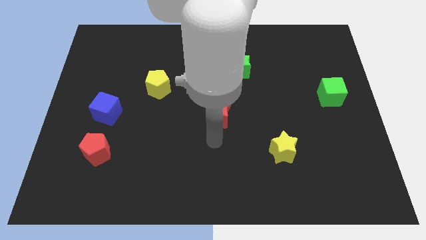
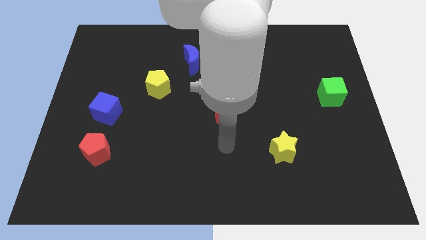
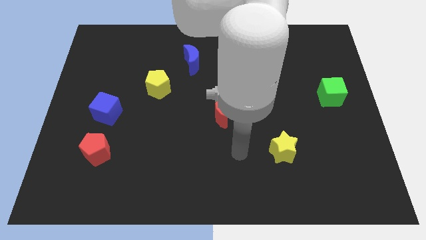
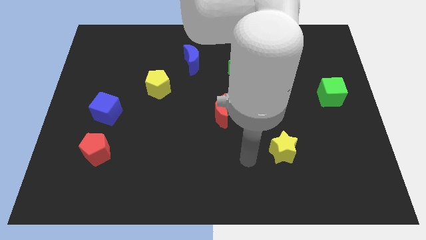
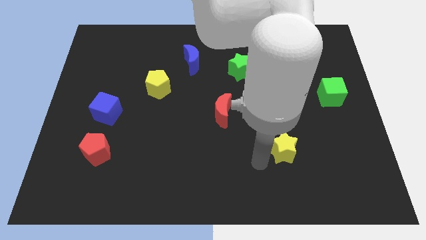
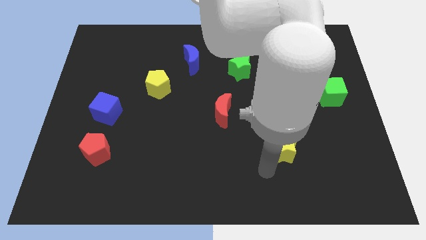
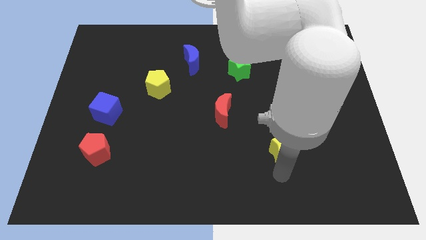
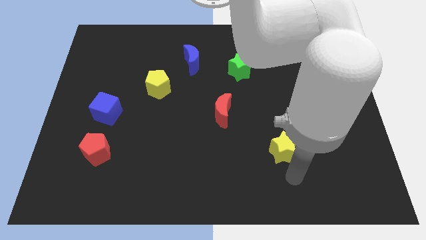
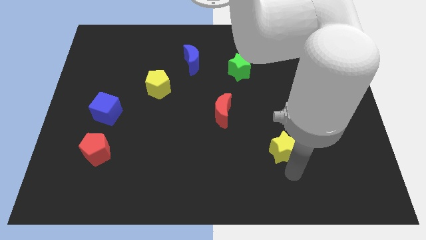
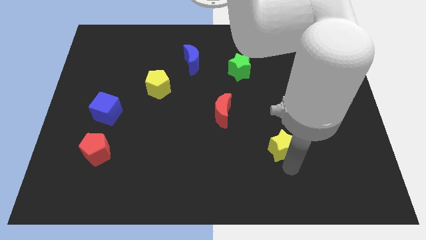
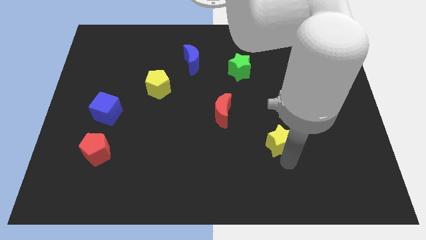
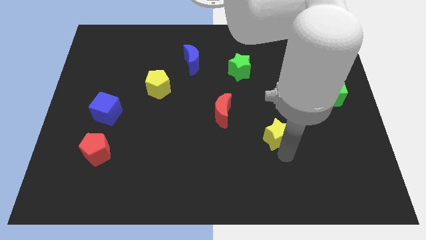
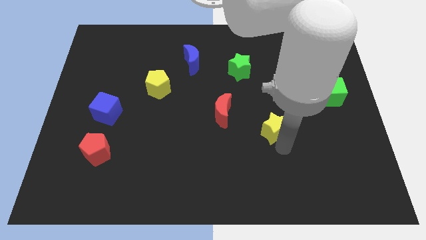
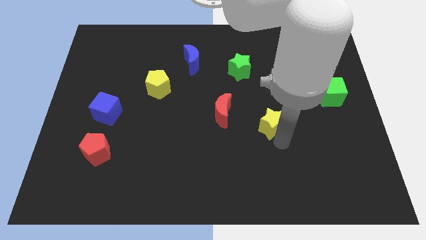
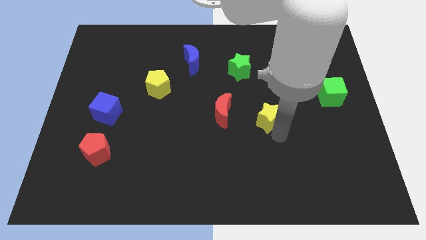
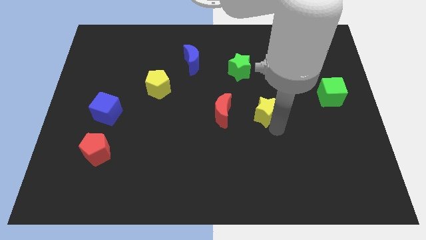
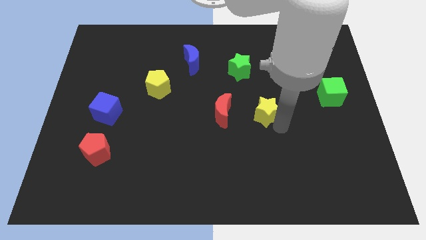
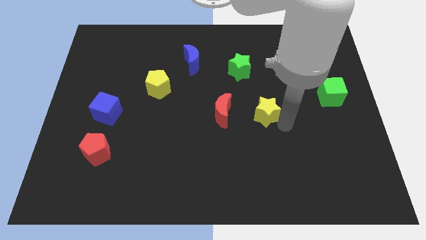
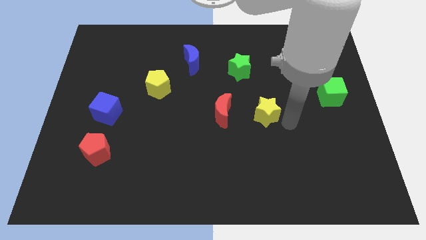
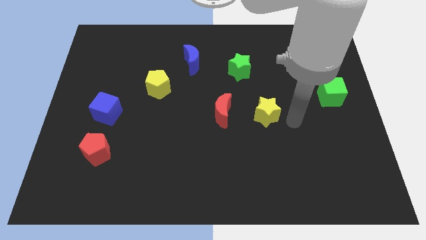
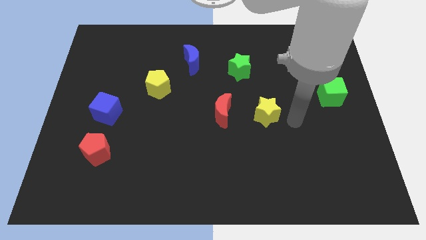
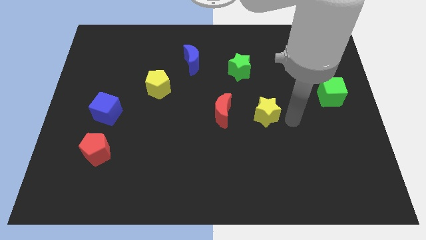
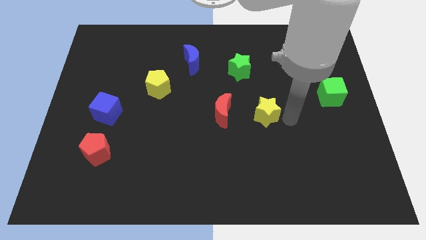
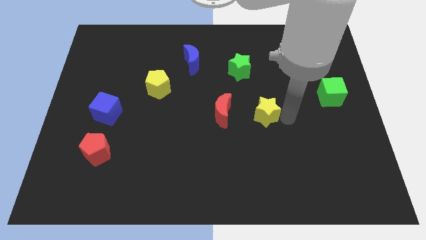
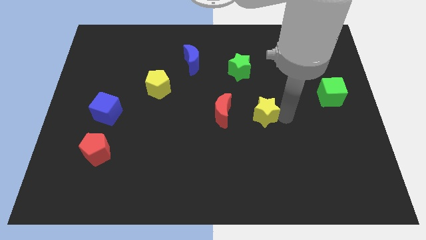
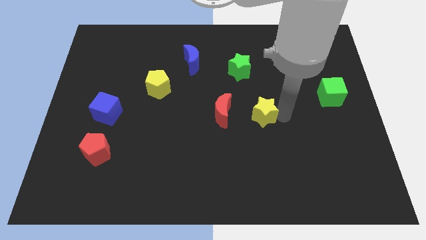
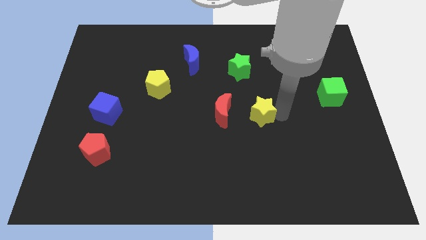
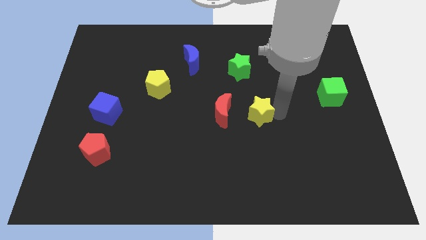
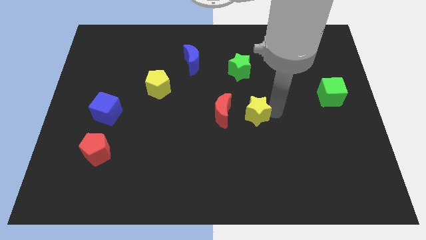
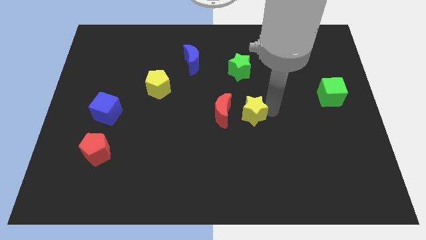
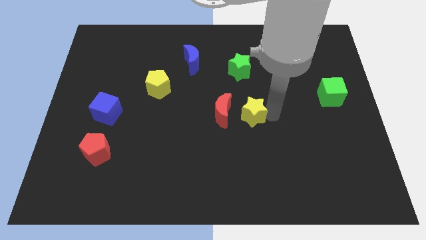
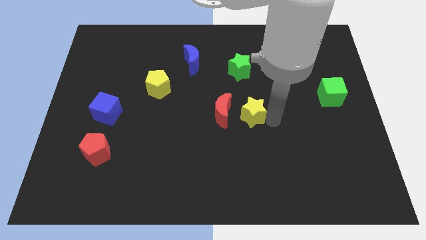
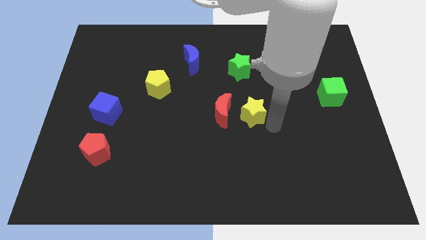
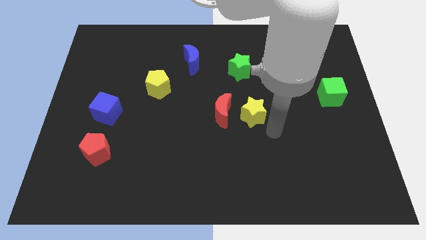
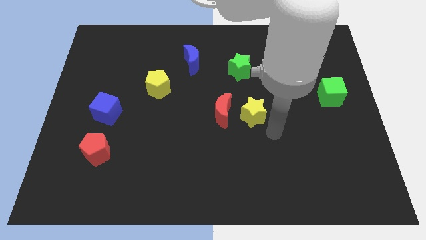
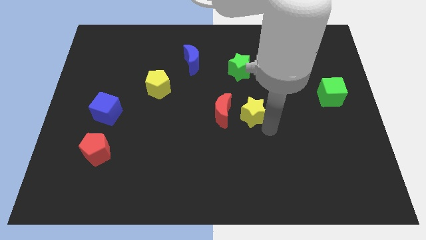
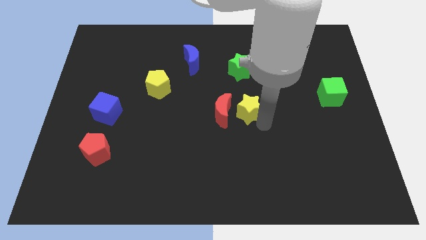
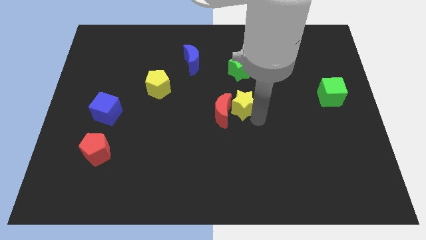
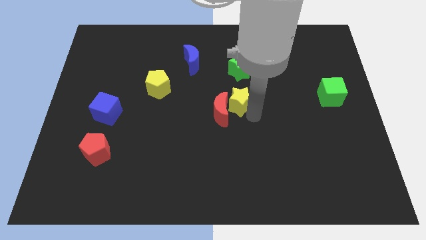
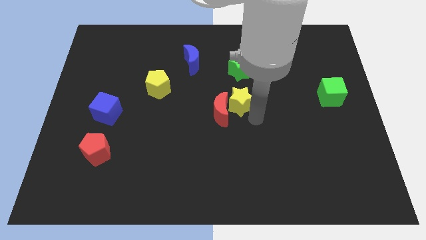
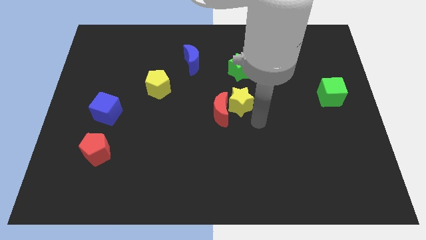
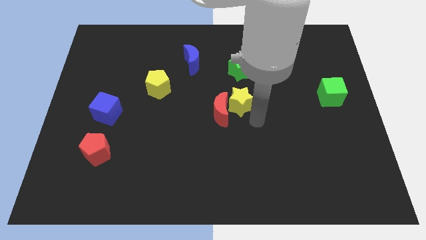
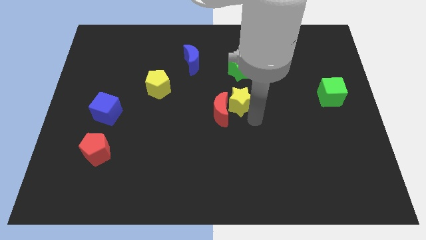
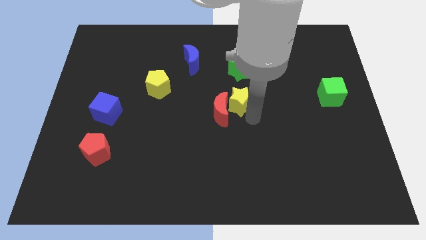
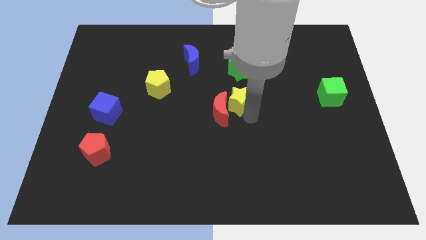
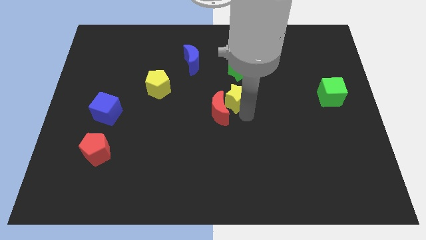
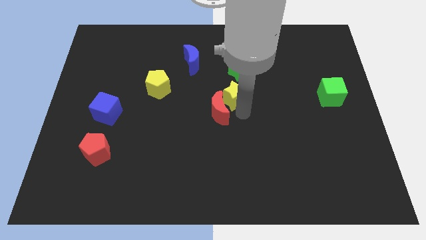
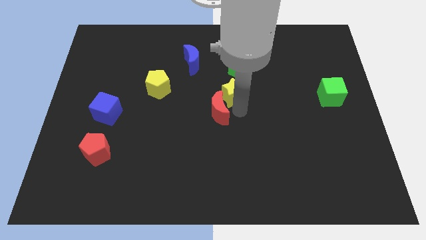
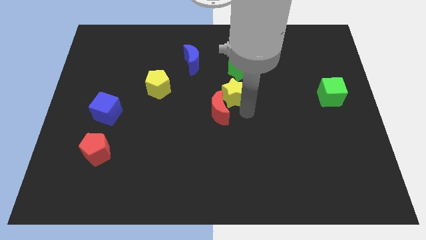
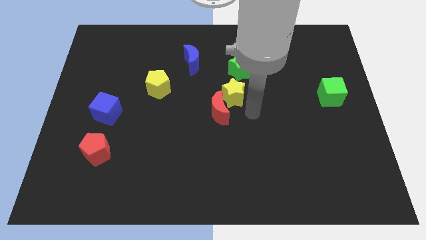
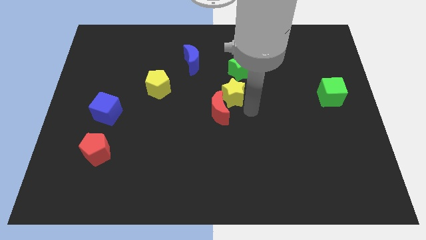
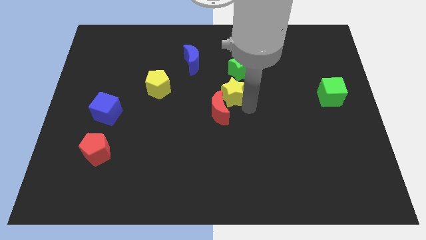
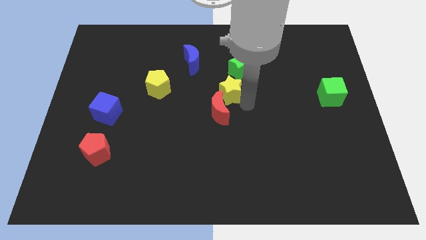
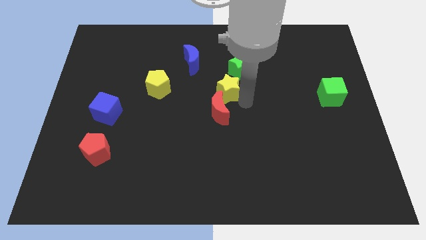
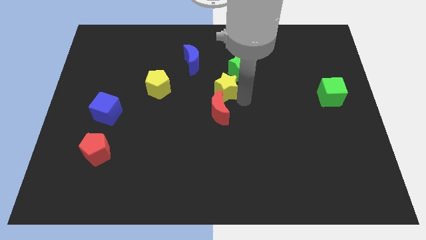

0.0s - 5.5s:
move the yellow star to the bottom right side of the blue moon

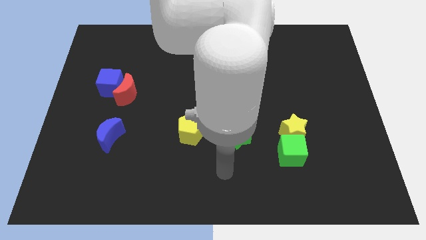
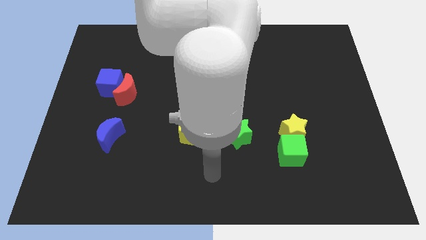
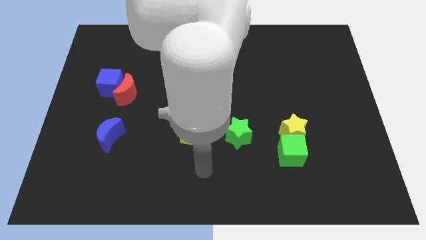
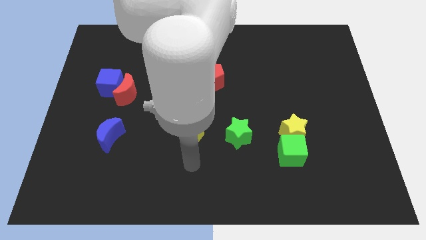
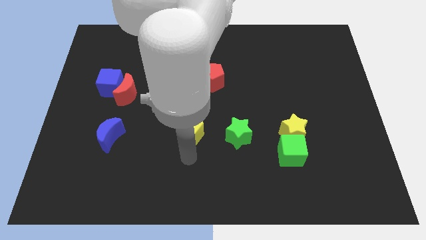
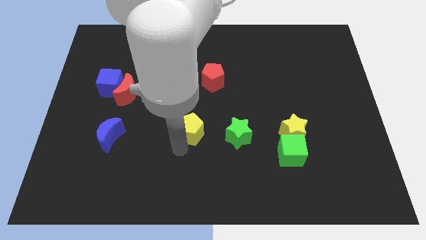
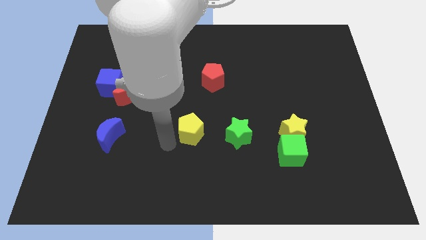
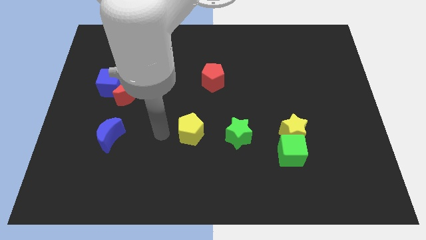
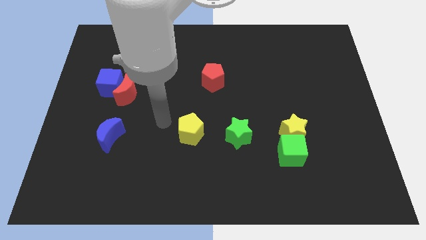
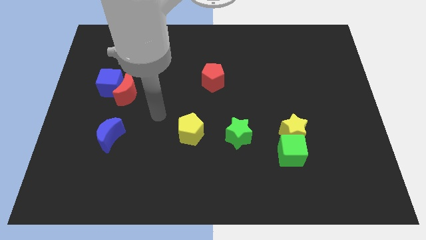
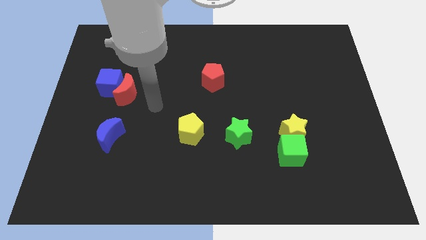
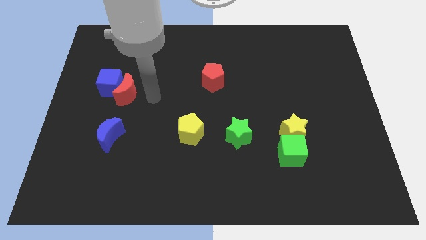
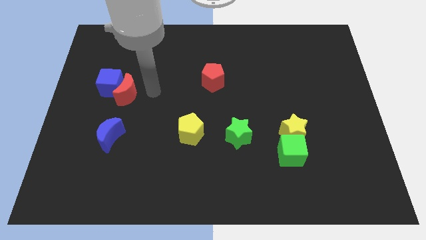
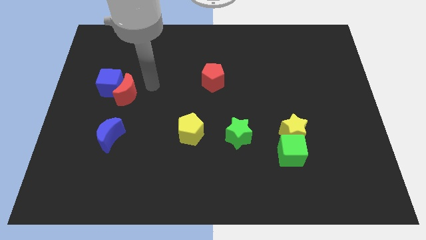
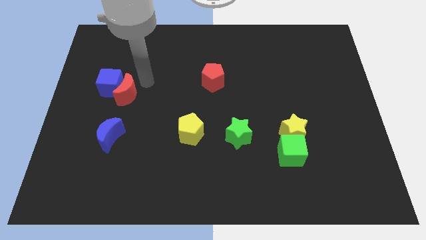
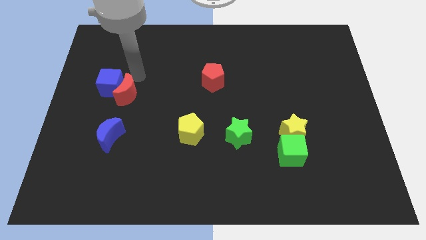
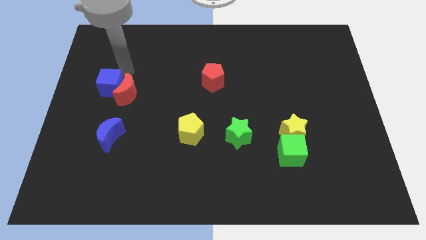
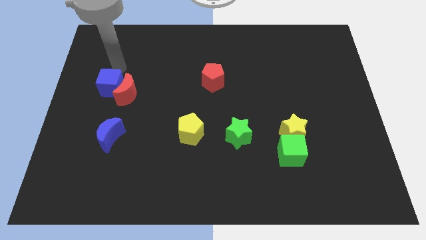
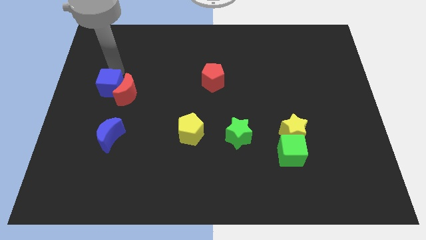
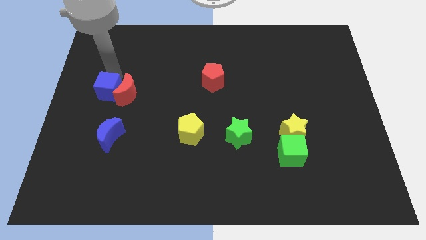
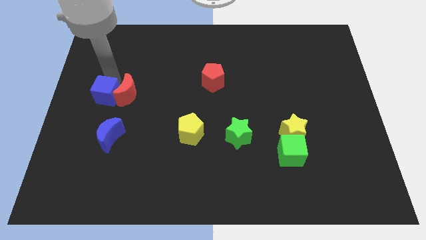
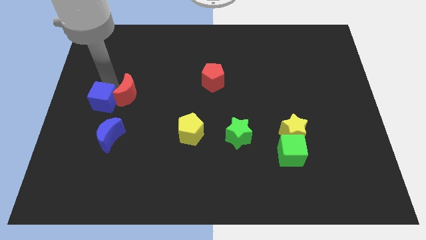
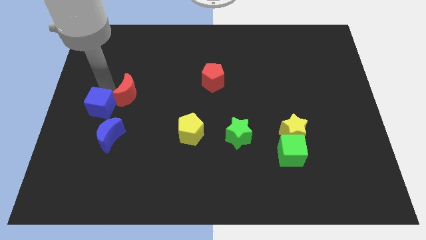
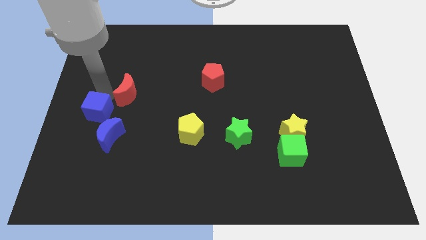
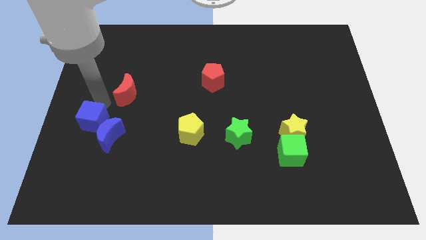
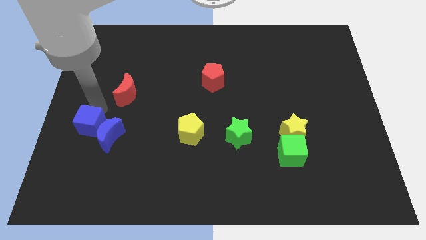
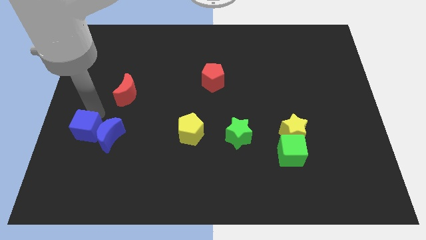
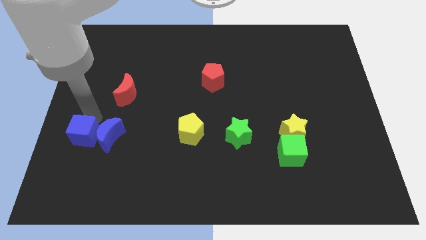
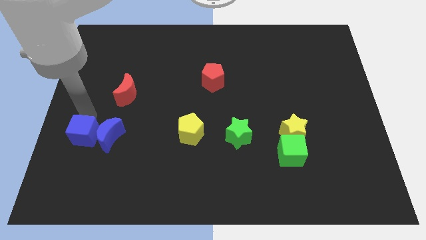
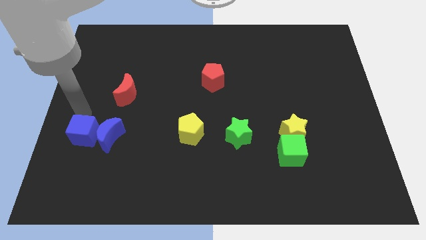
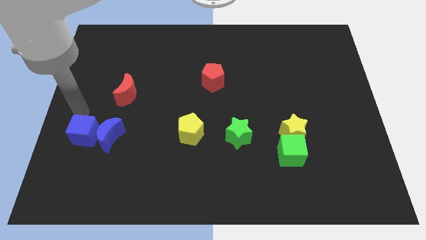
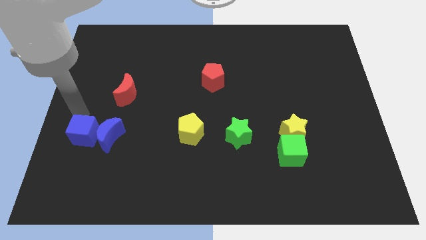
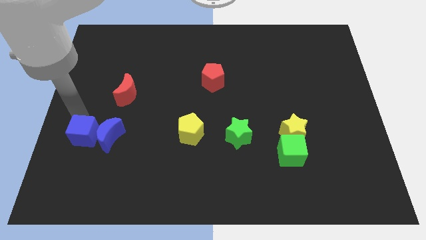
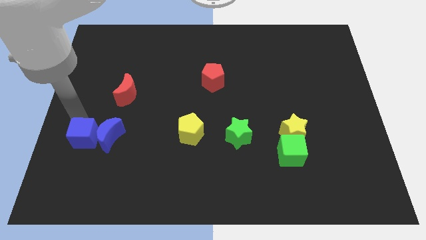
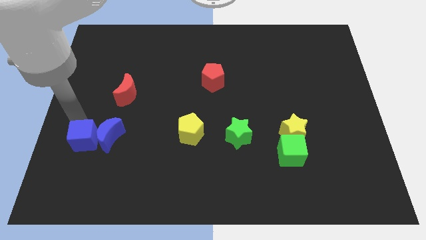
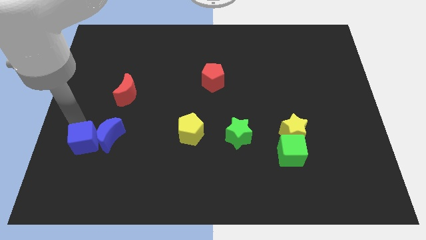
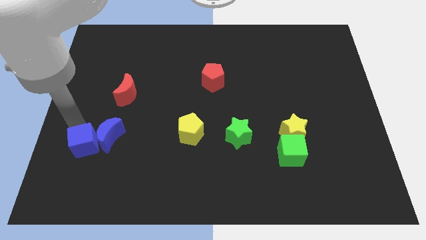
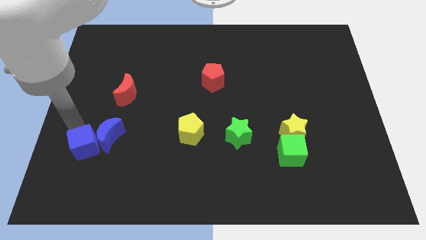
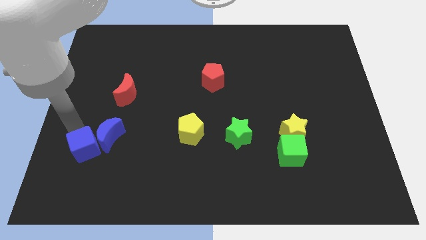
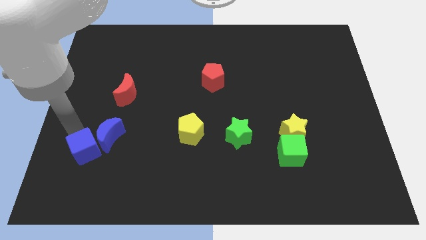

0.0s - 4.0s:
push the blue cube below the blue moon
